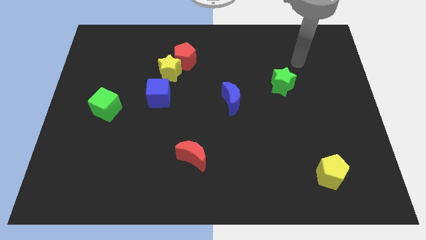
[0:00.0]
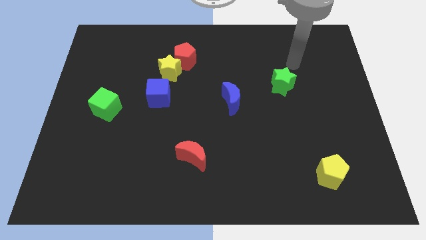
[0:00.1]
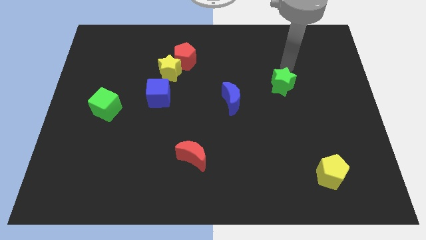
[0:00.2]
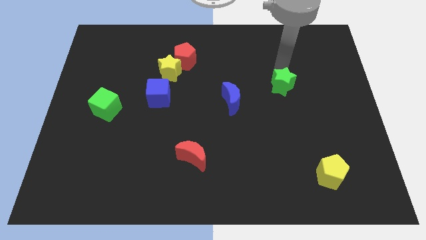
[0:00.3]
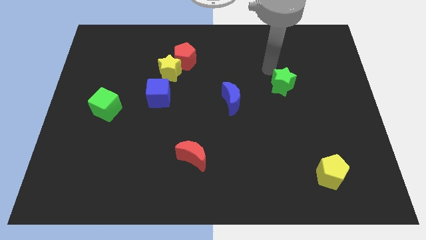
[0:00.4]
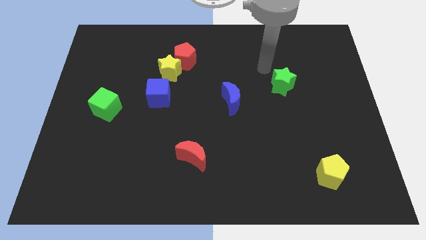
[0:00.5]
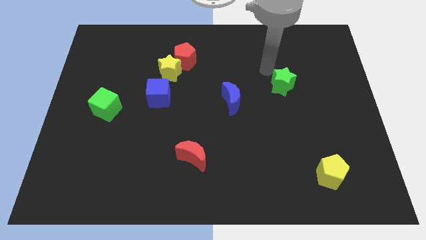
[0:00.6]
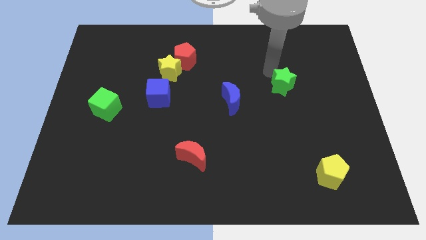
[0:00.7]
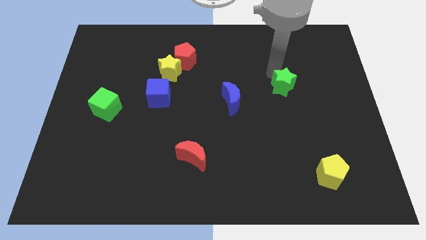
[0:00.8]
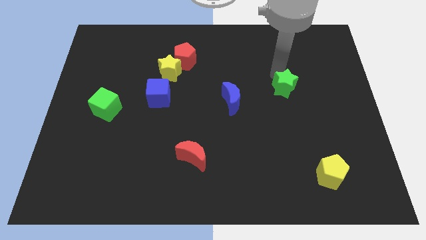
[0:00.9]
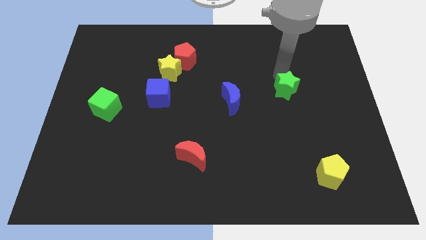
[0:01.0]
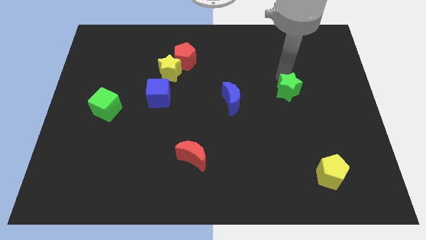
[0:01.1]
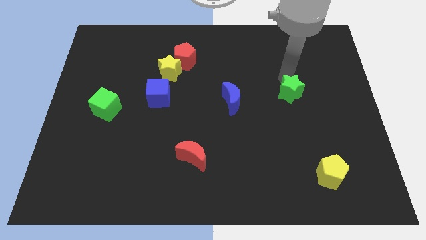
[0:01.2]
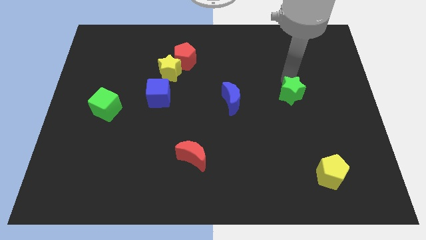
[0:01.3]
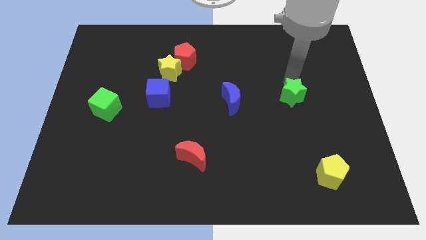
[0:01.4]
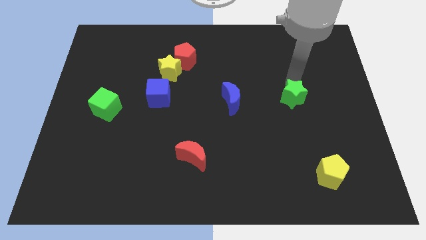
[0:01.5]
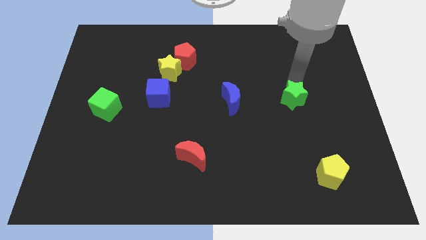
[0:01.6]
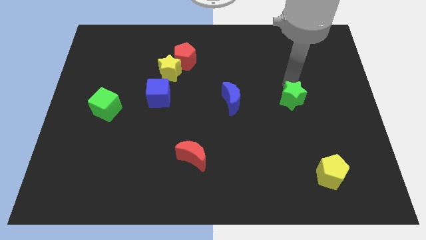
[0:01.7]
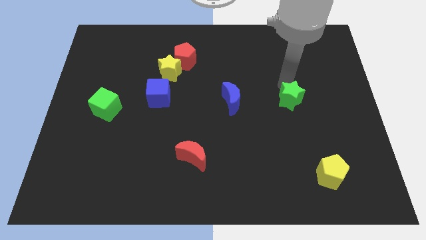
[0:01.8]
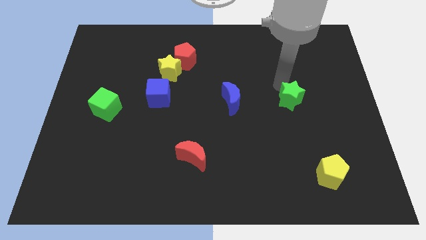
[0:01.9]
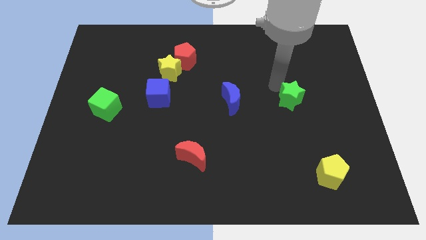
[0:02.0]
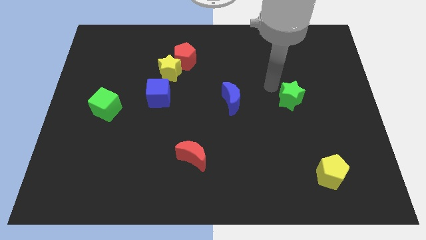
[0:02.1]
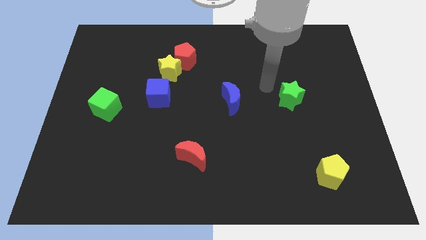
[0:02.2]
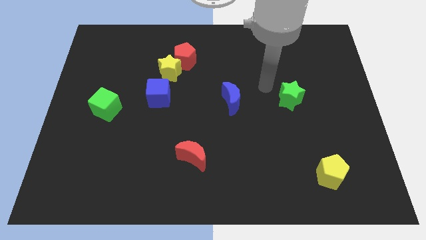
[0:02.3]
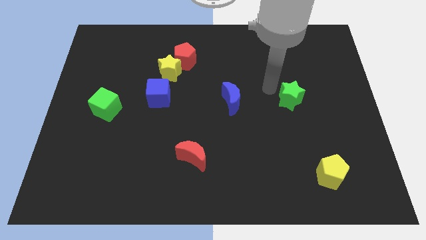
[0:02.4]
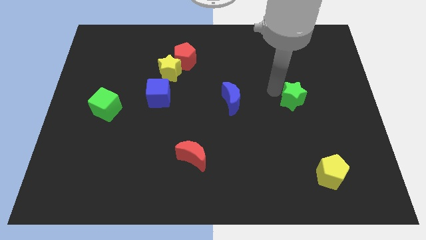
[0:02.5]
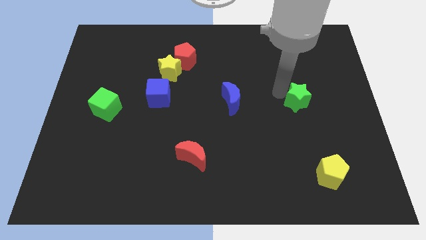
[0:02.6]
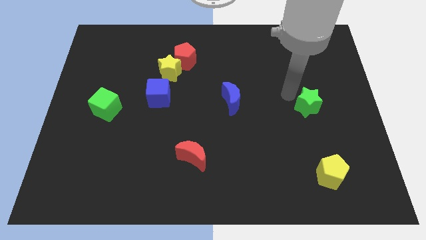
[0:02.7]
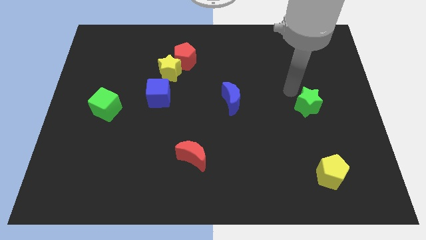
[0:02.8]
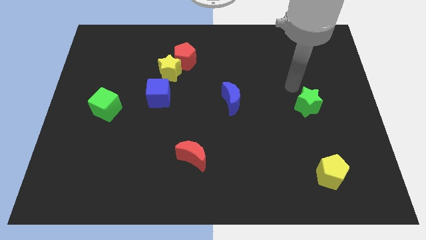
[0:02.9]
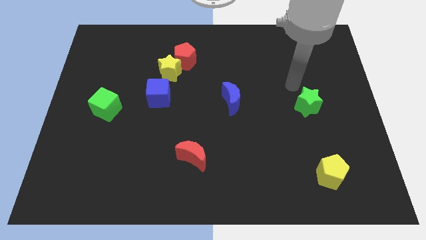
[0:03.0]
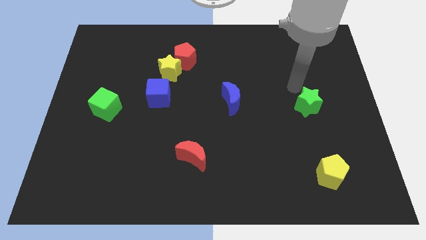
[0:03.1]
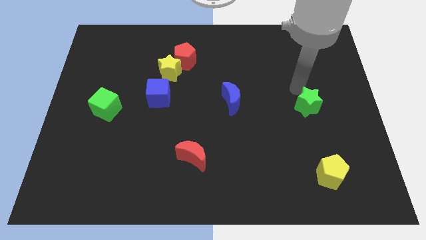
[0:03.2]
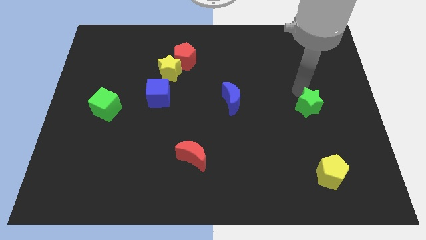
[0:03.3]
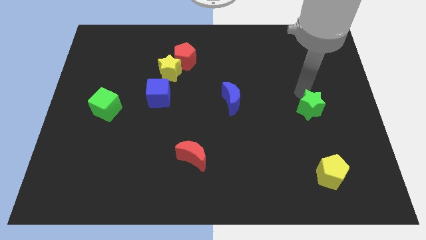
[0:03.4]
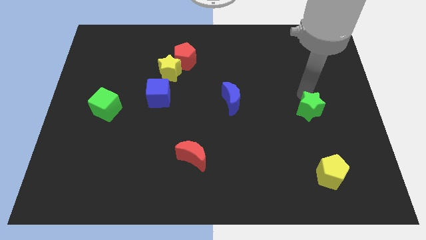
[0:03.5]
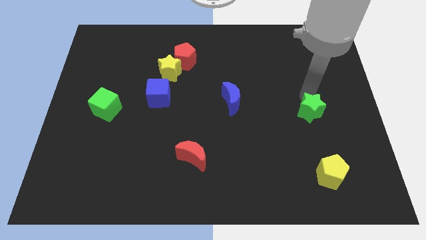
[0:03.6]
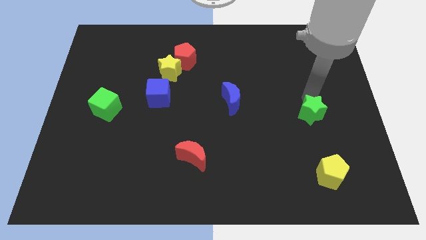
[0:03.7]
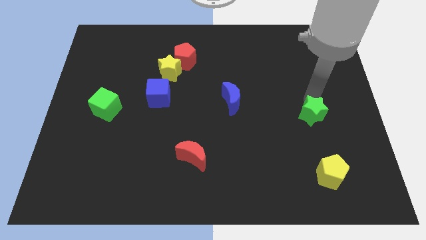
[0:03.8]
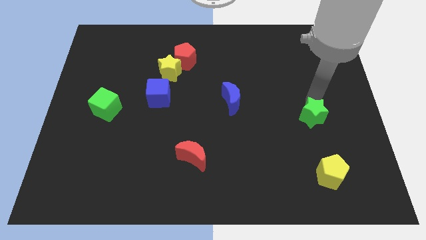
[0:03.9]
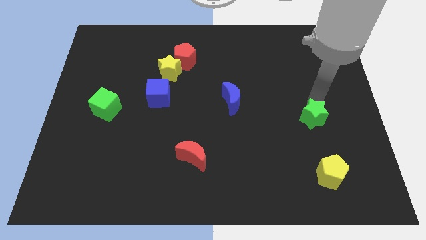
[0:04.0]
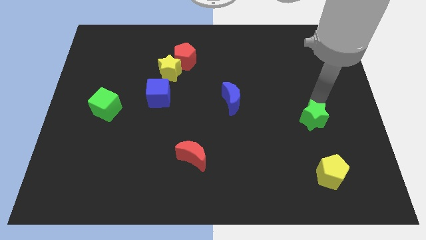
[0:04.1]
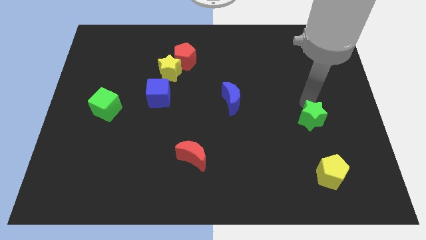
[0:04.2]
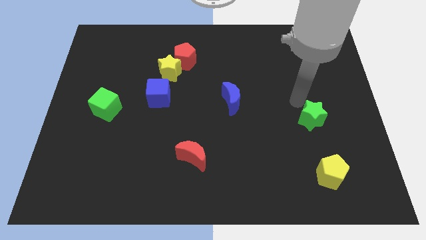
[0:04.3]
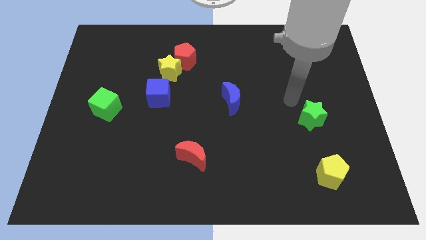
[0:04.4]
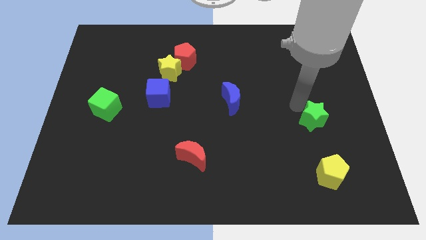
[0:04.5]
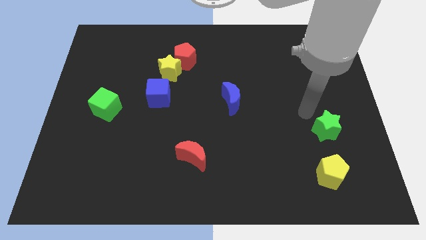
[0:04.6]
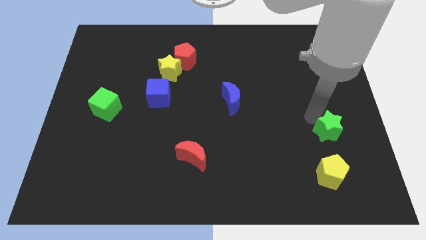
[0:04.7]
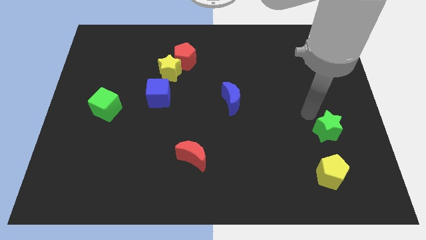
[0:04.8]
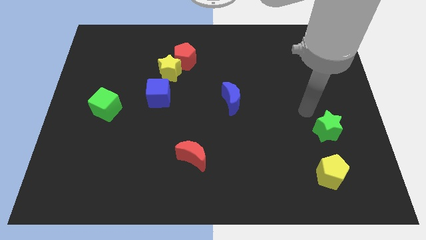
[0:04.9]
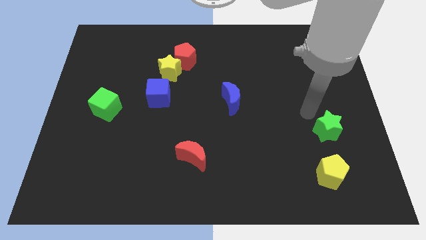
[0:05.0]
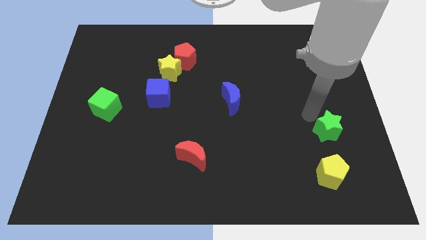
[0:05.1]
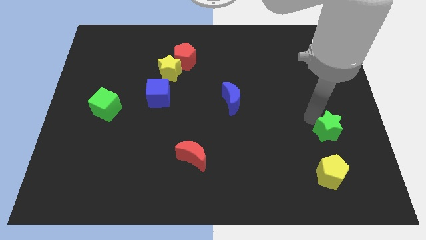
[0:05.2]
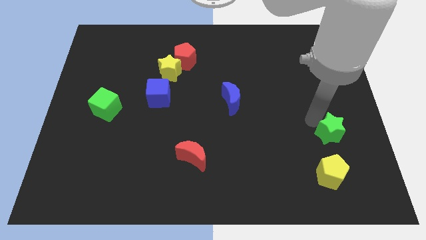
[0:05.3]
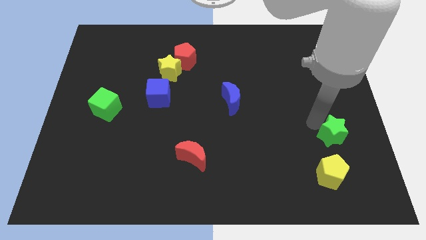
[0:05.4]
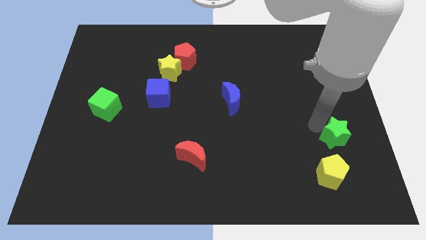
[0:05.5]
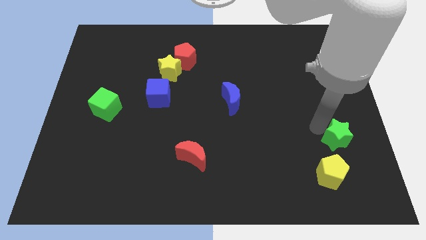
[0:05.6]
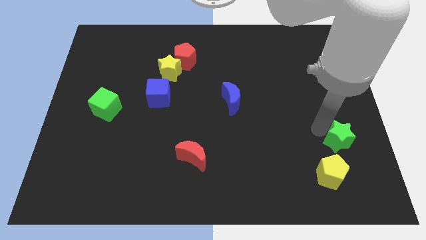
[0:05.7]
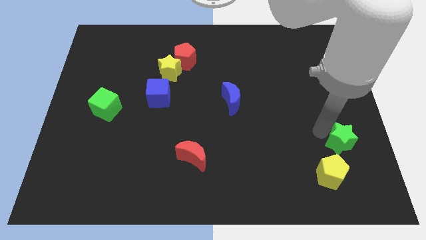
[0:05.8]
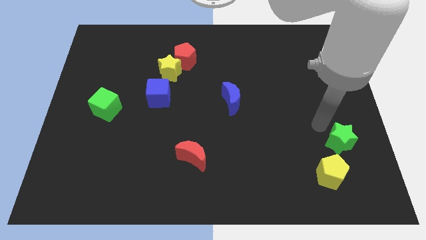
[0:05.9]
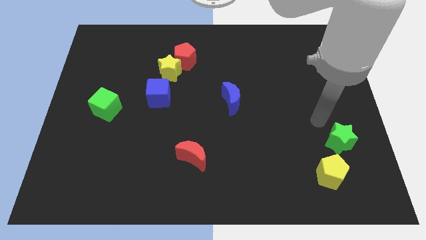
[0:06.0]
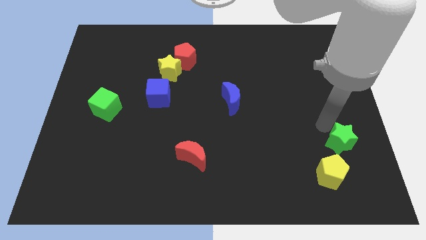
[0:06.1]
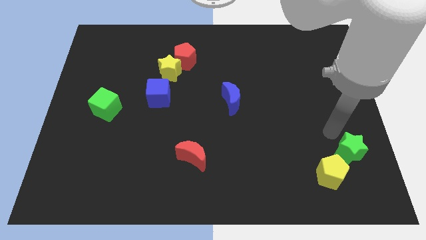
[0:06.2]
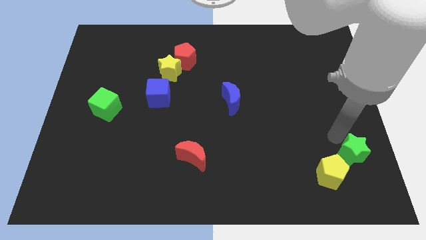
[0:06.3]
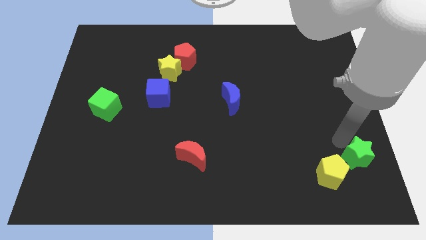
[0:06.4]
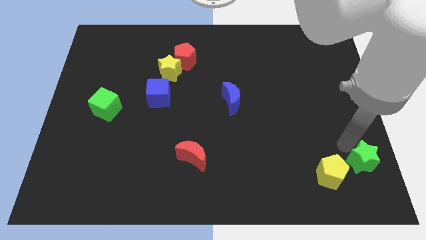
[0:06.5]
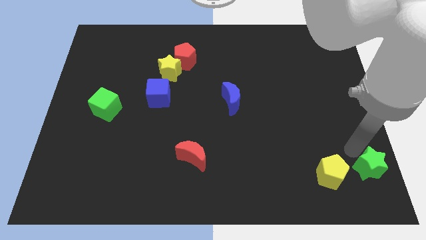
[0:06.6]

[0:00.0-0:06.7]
put the green star to the lower right corner

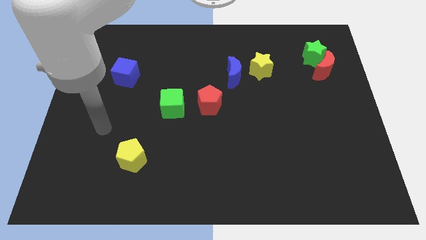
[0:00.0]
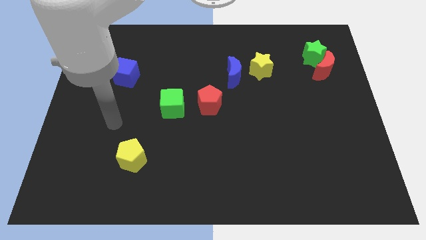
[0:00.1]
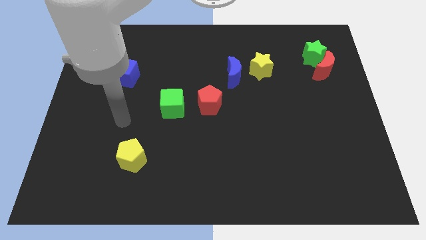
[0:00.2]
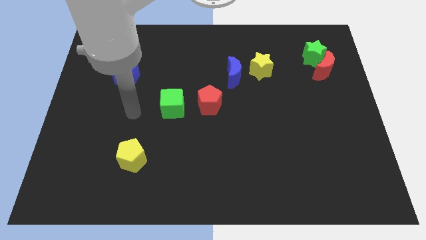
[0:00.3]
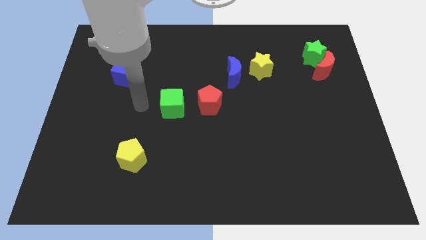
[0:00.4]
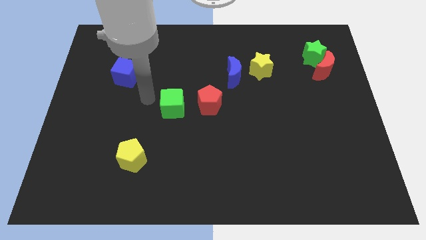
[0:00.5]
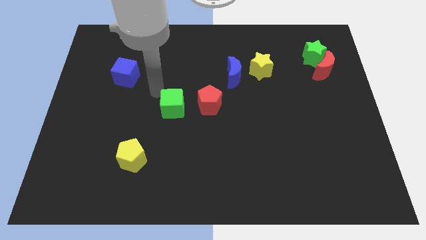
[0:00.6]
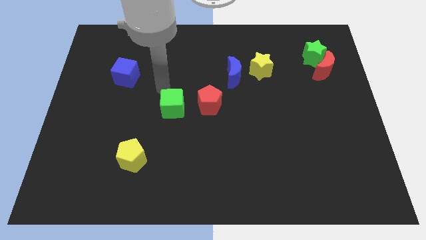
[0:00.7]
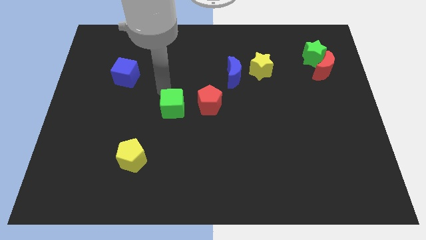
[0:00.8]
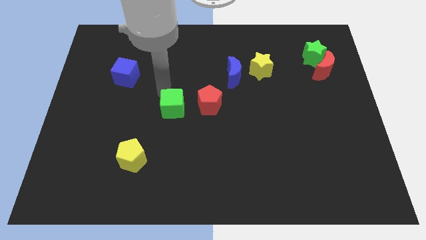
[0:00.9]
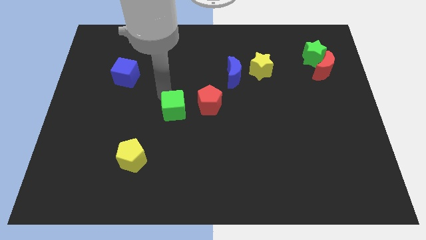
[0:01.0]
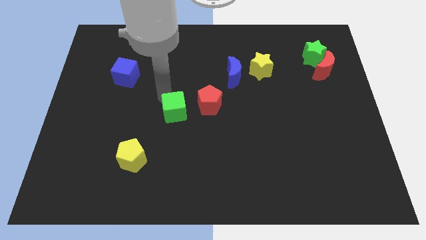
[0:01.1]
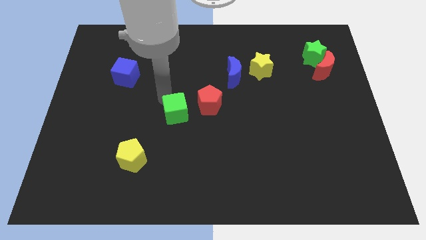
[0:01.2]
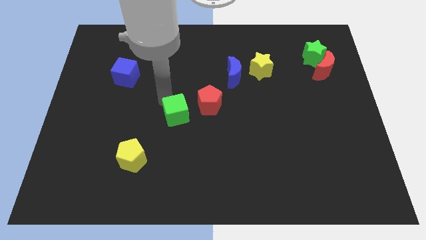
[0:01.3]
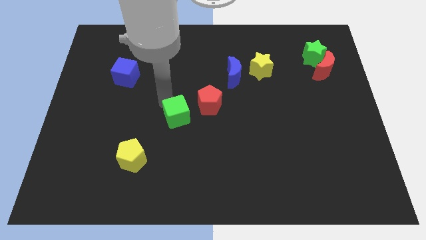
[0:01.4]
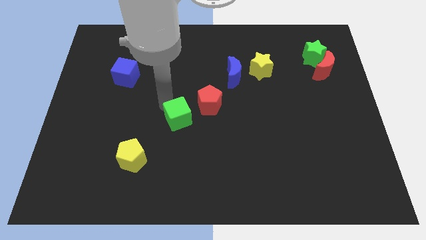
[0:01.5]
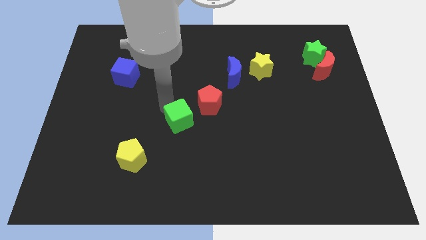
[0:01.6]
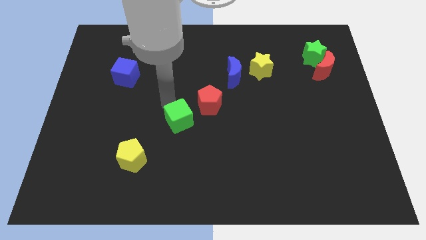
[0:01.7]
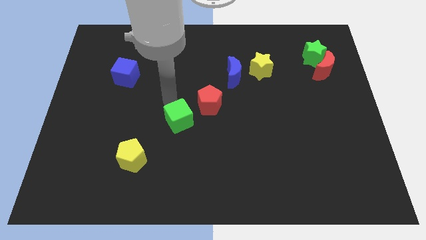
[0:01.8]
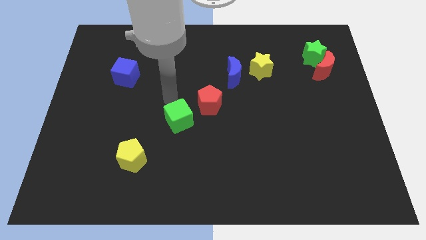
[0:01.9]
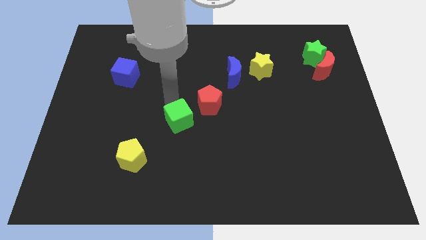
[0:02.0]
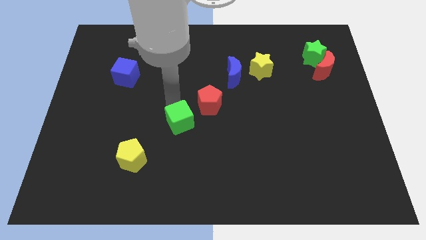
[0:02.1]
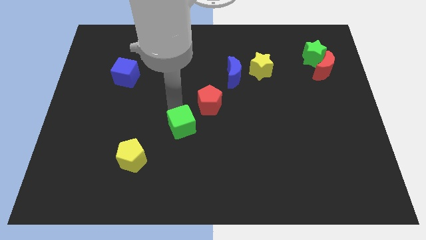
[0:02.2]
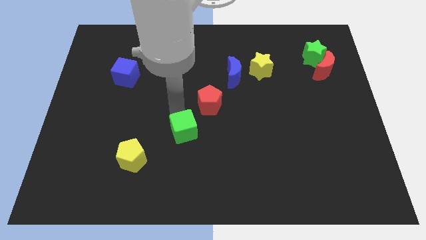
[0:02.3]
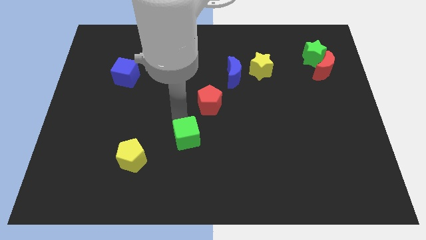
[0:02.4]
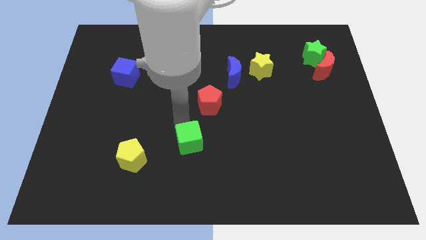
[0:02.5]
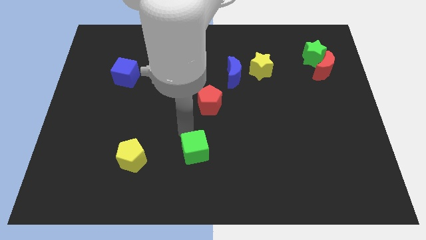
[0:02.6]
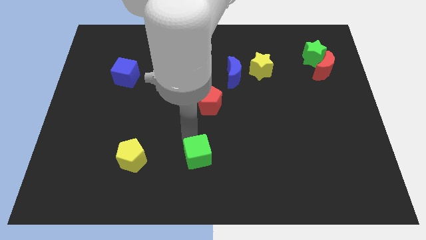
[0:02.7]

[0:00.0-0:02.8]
move the green cube to the bottom
